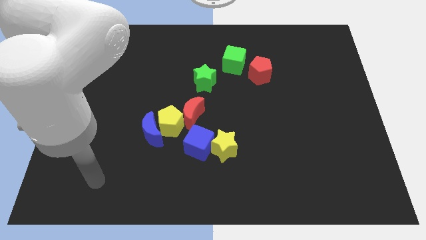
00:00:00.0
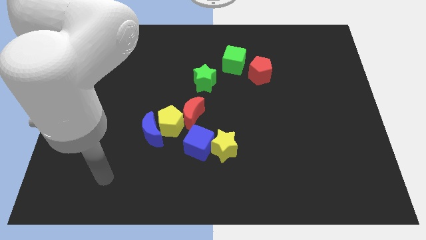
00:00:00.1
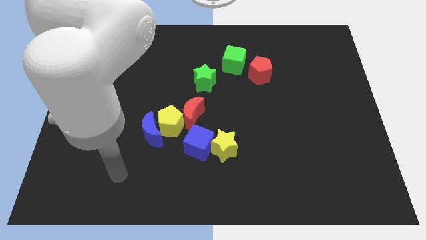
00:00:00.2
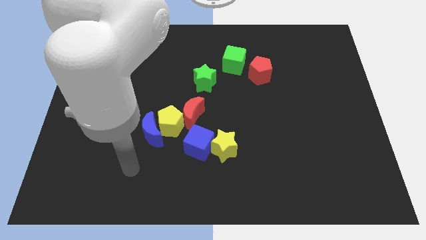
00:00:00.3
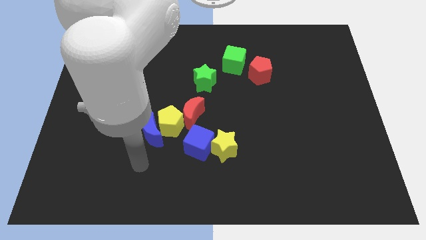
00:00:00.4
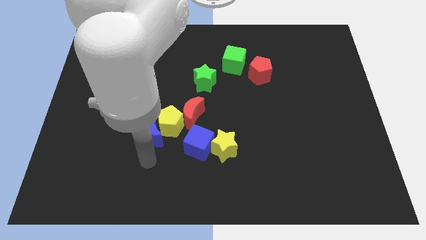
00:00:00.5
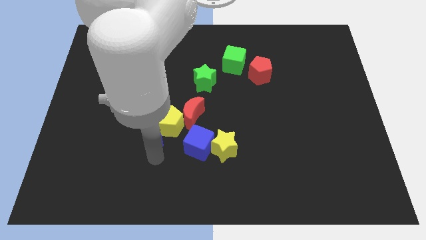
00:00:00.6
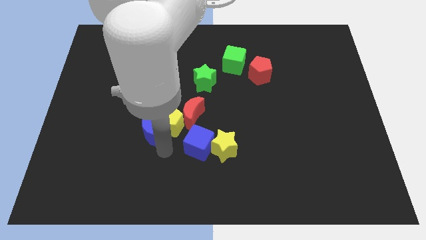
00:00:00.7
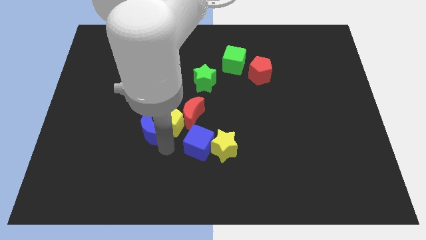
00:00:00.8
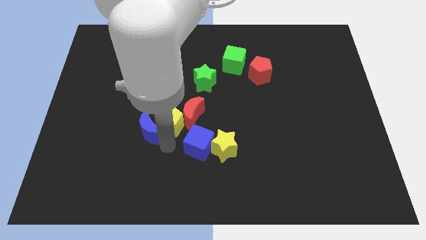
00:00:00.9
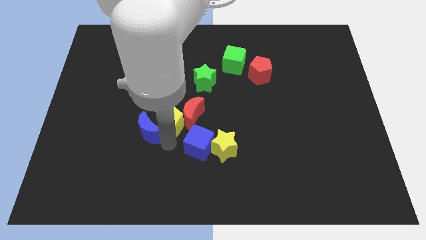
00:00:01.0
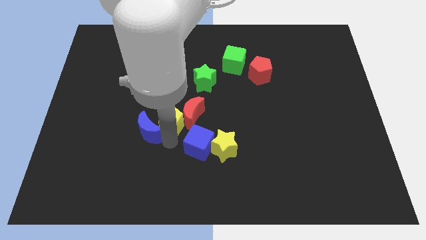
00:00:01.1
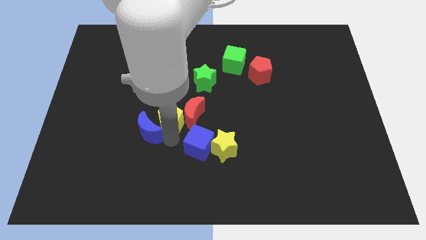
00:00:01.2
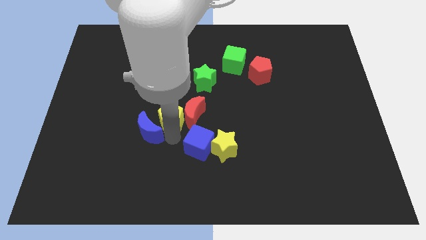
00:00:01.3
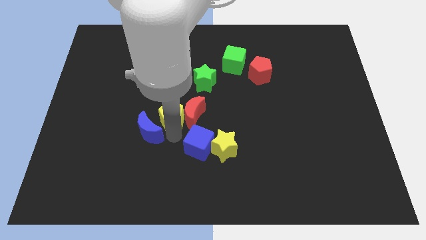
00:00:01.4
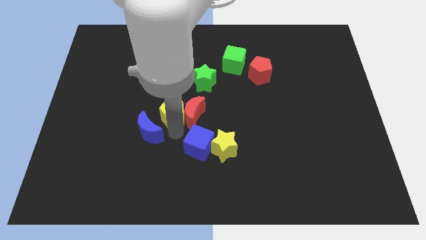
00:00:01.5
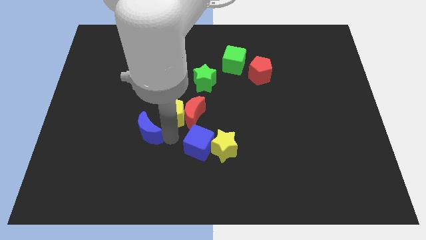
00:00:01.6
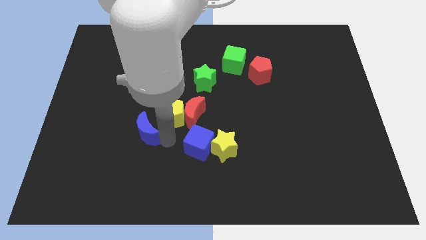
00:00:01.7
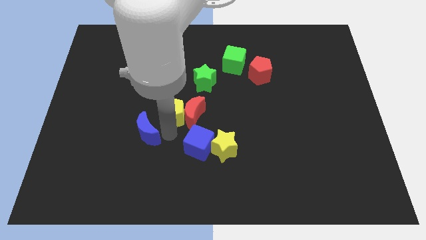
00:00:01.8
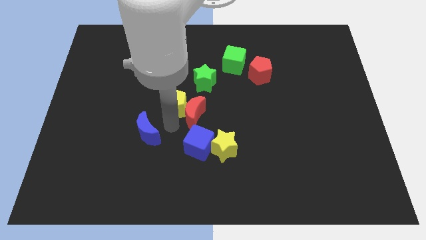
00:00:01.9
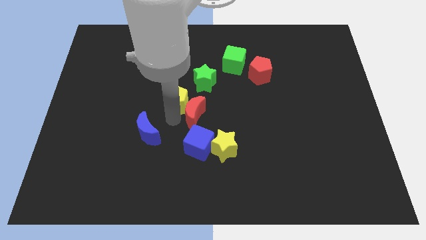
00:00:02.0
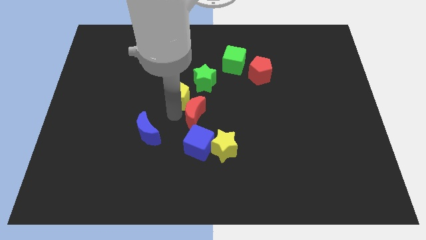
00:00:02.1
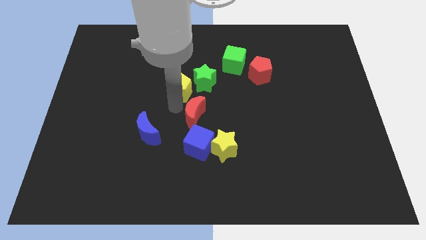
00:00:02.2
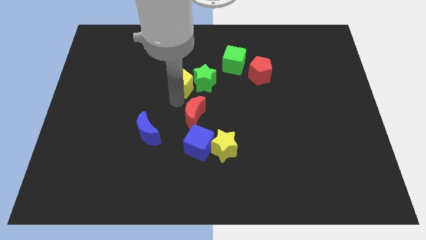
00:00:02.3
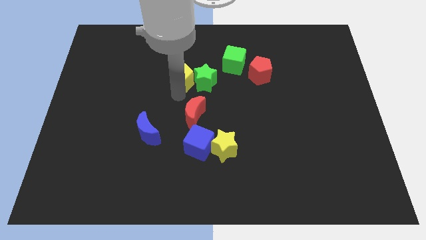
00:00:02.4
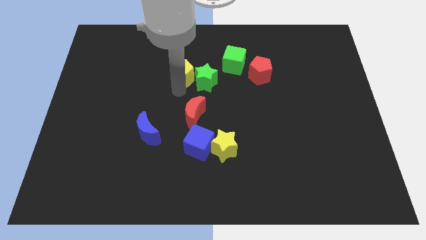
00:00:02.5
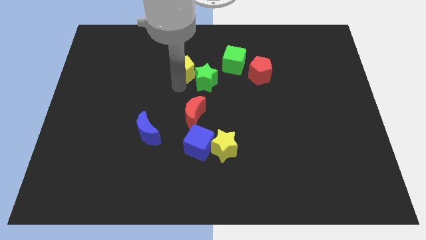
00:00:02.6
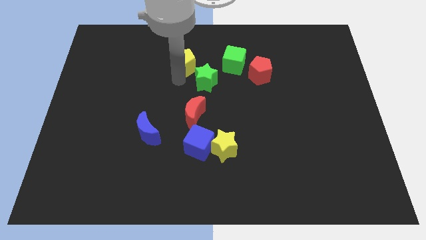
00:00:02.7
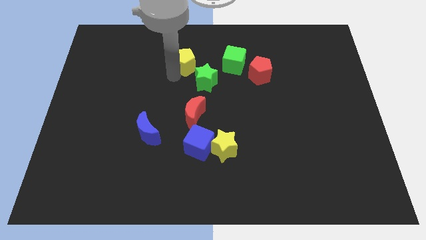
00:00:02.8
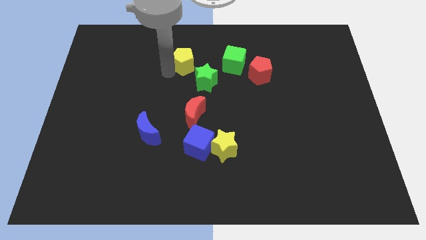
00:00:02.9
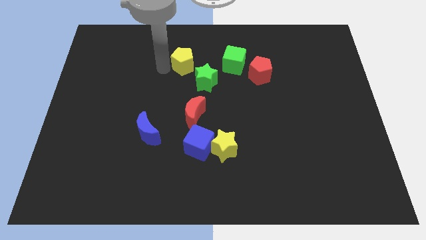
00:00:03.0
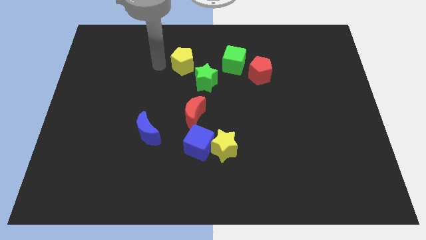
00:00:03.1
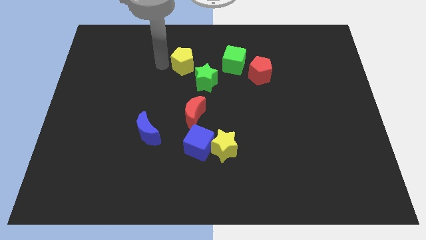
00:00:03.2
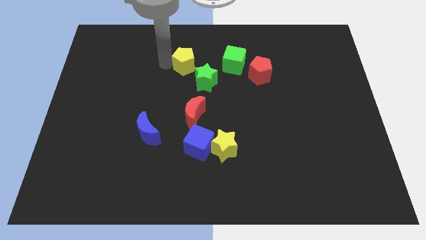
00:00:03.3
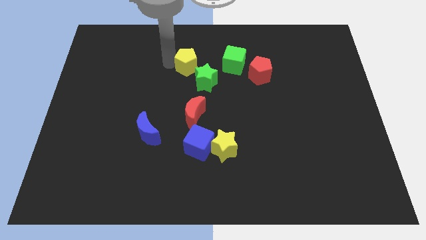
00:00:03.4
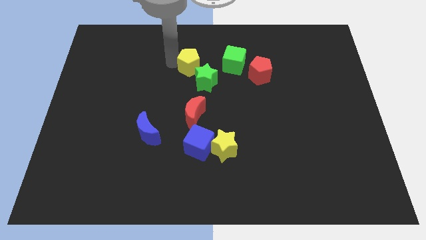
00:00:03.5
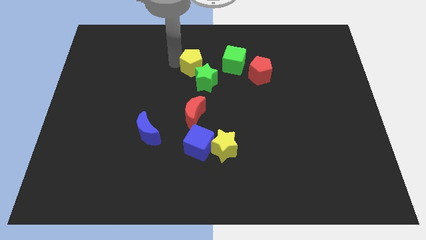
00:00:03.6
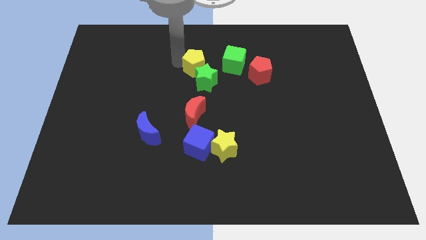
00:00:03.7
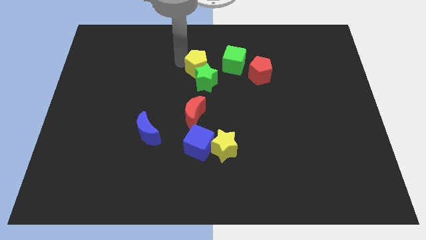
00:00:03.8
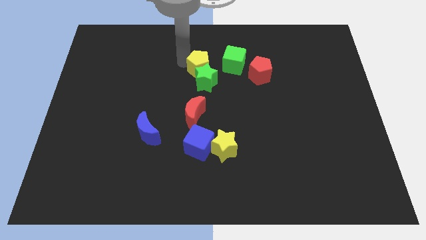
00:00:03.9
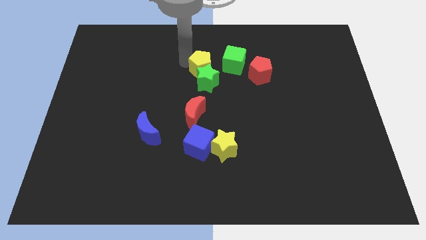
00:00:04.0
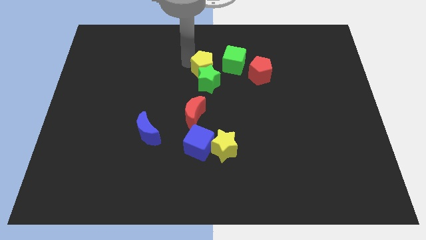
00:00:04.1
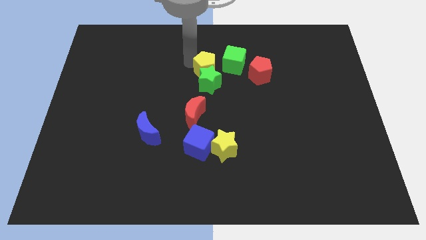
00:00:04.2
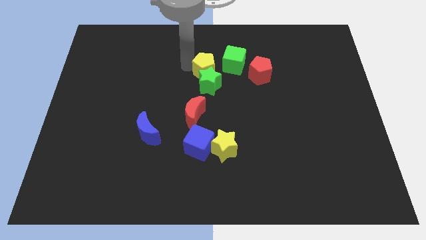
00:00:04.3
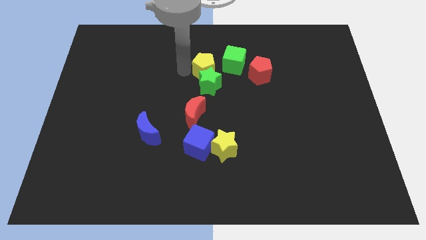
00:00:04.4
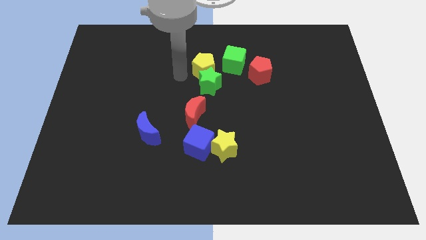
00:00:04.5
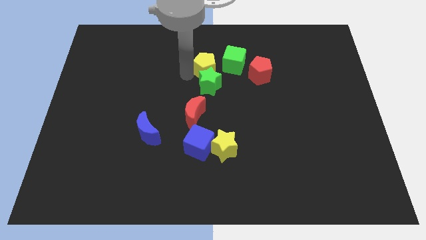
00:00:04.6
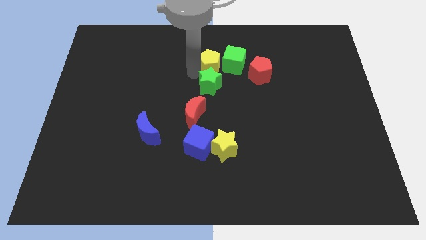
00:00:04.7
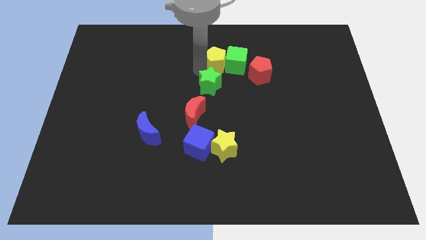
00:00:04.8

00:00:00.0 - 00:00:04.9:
put the yellow pentagon towards the green cube

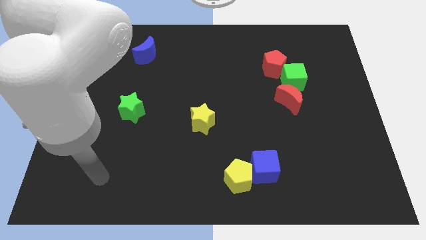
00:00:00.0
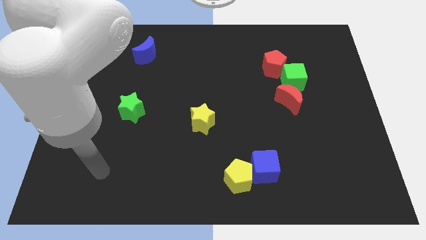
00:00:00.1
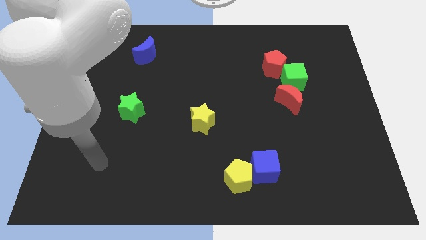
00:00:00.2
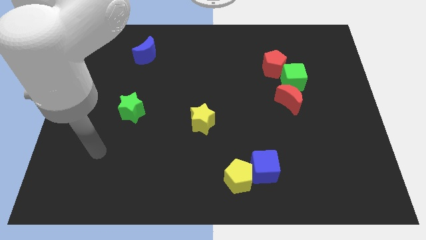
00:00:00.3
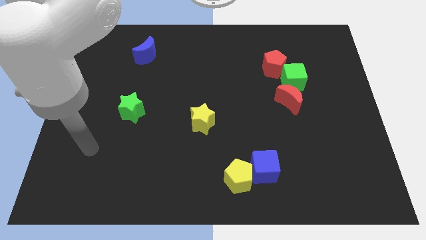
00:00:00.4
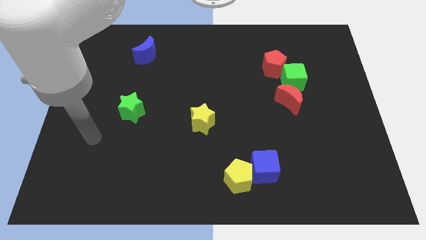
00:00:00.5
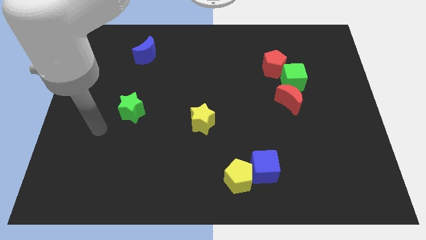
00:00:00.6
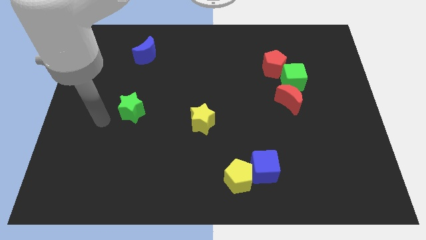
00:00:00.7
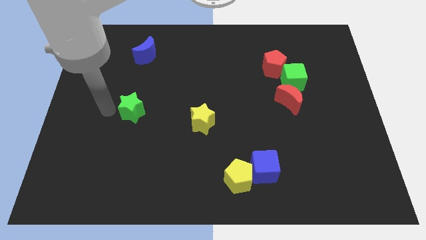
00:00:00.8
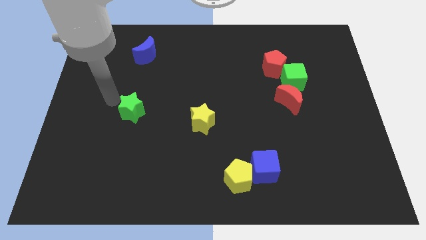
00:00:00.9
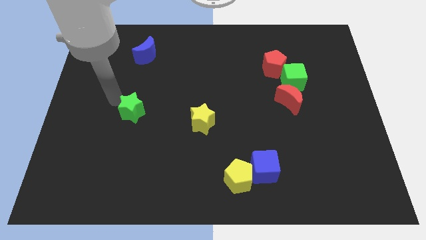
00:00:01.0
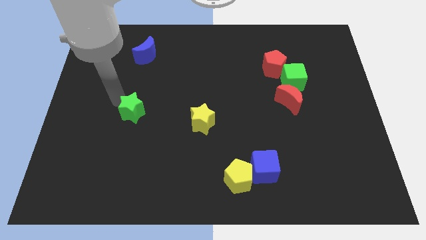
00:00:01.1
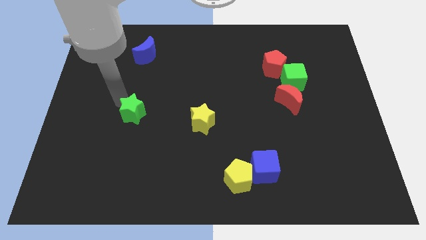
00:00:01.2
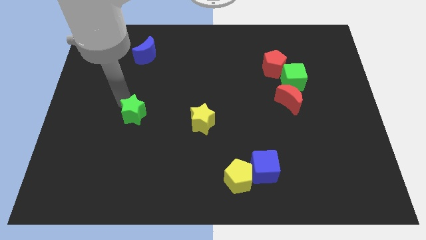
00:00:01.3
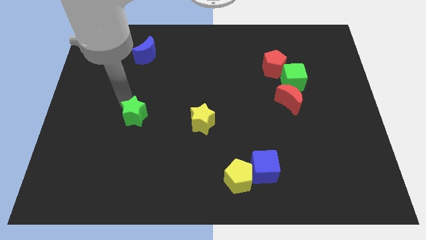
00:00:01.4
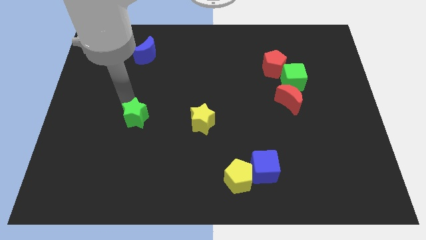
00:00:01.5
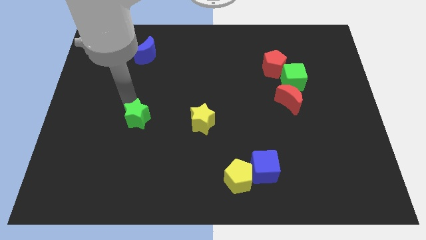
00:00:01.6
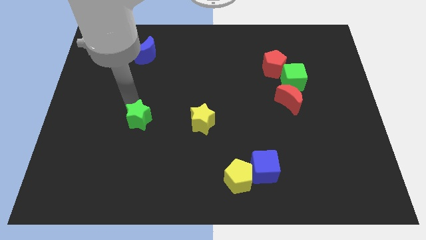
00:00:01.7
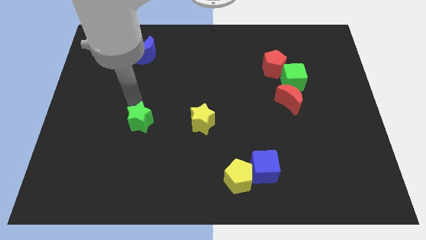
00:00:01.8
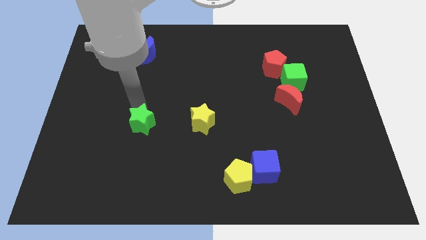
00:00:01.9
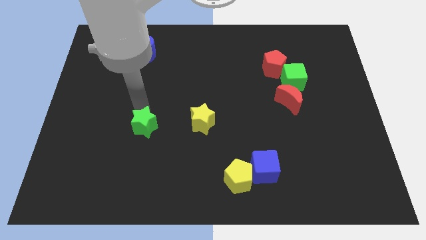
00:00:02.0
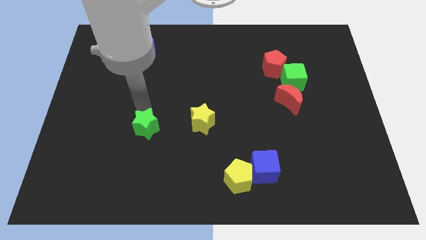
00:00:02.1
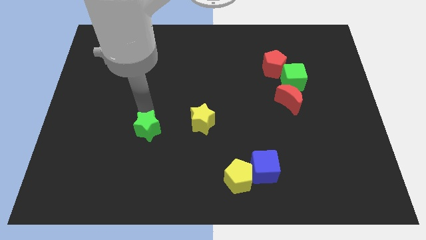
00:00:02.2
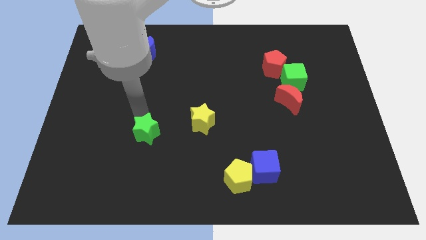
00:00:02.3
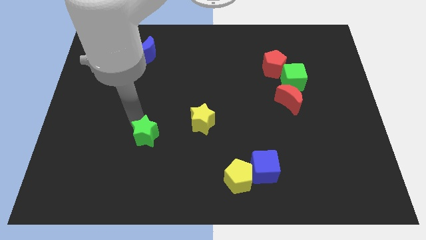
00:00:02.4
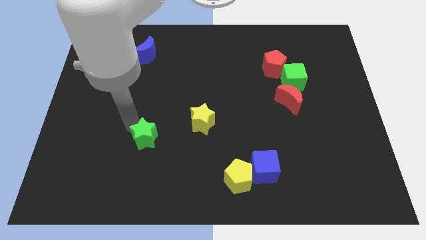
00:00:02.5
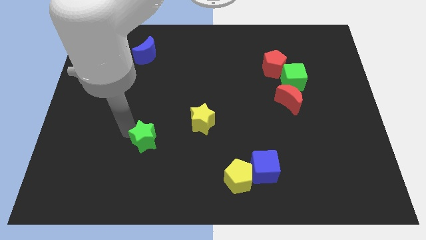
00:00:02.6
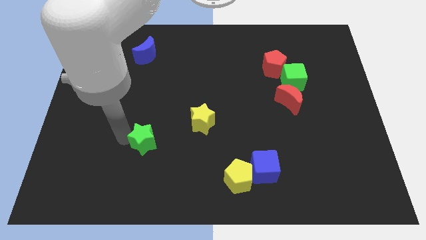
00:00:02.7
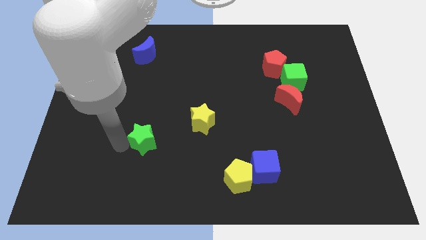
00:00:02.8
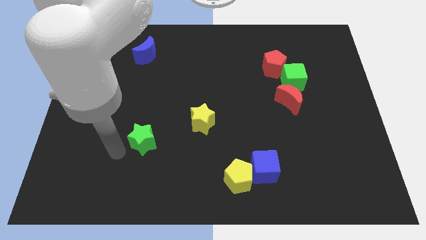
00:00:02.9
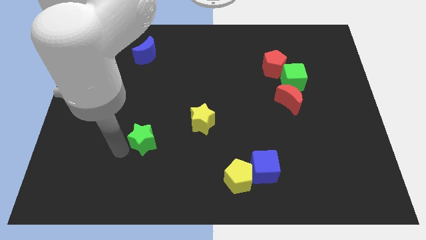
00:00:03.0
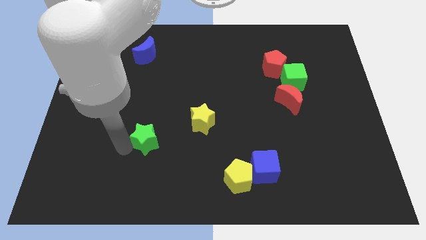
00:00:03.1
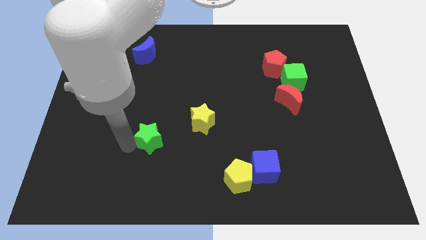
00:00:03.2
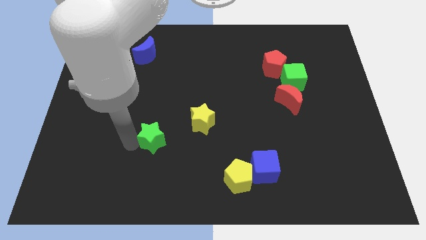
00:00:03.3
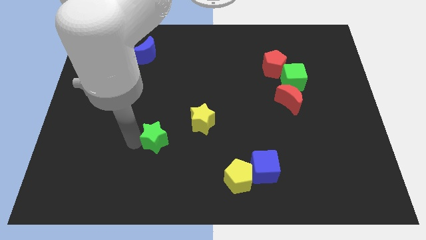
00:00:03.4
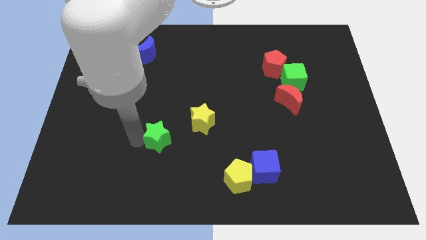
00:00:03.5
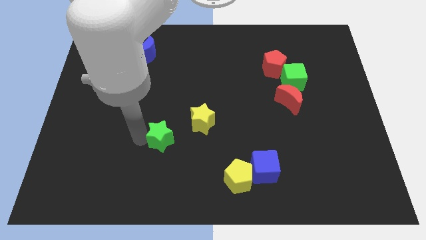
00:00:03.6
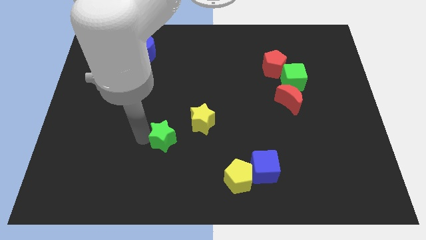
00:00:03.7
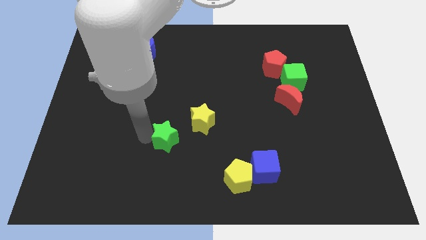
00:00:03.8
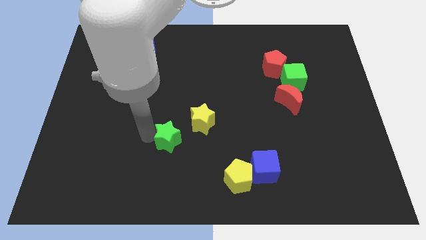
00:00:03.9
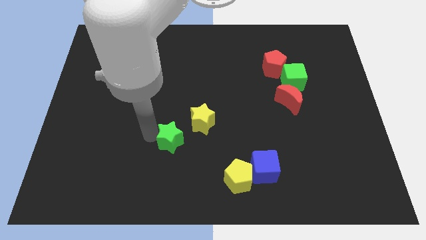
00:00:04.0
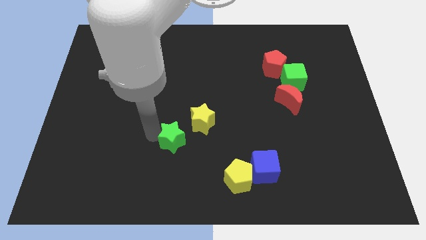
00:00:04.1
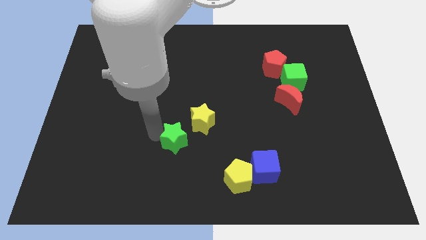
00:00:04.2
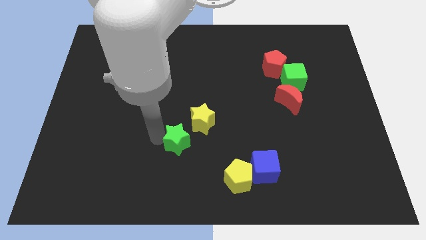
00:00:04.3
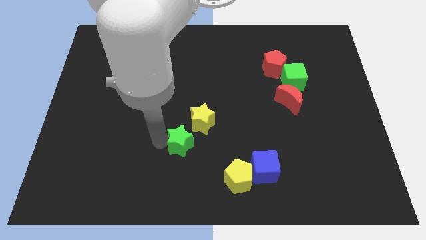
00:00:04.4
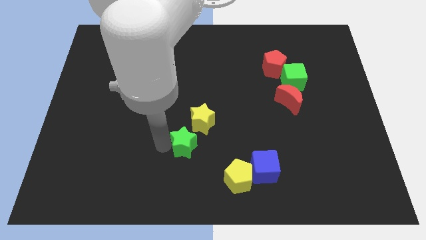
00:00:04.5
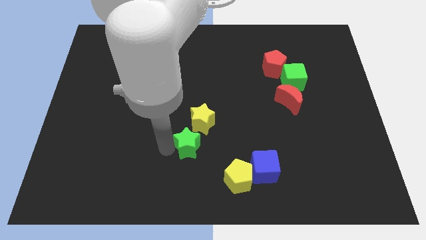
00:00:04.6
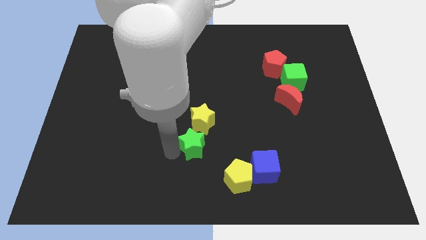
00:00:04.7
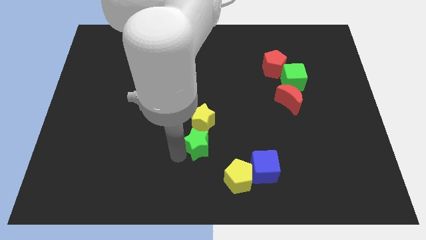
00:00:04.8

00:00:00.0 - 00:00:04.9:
put the green star close to the yellow star
